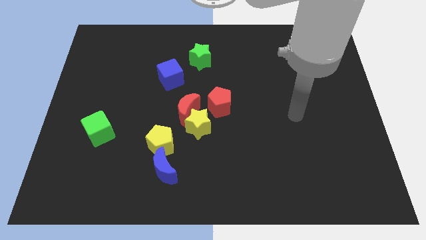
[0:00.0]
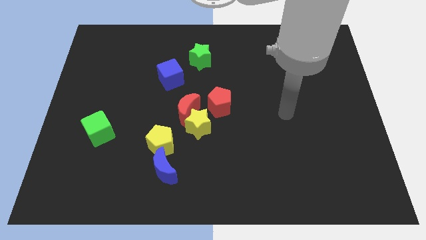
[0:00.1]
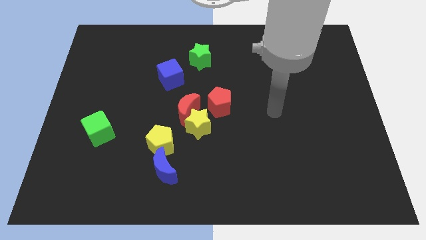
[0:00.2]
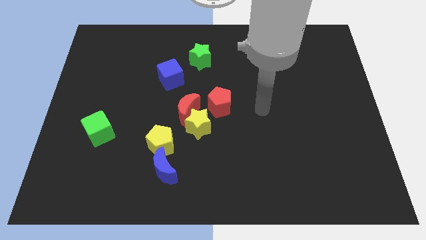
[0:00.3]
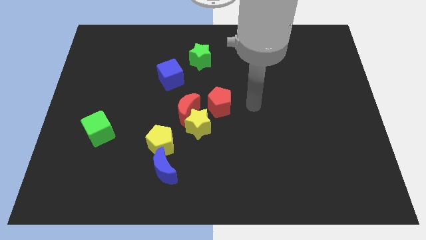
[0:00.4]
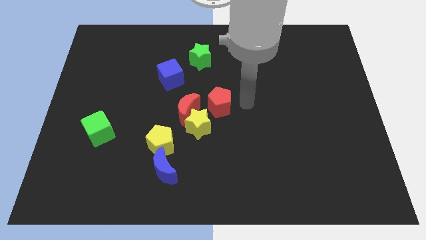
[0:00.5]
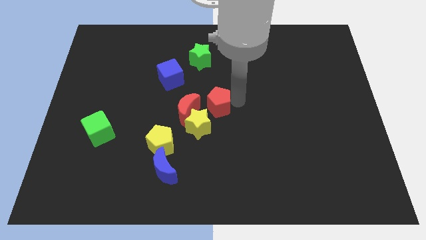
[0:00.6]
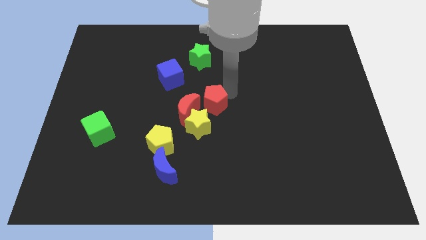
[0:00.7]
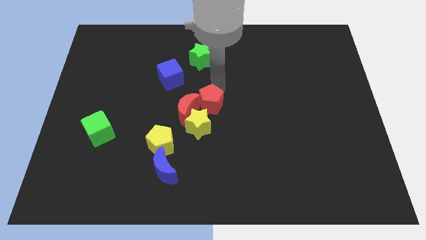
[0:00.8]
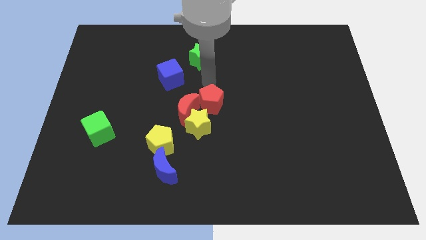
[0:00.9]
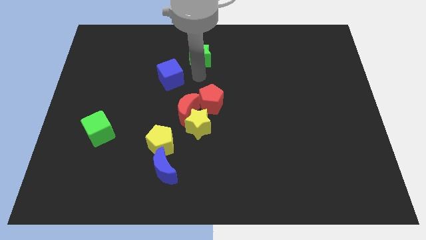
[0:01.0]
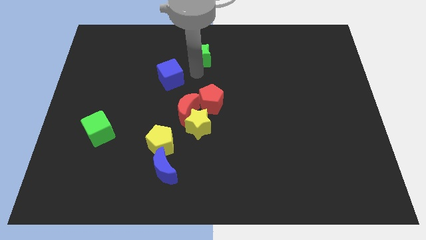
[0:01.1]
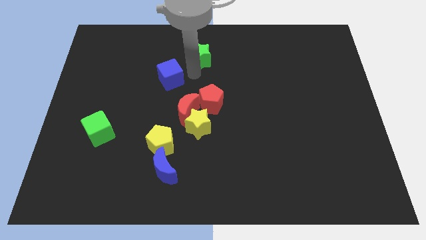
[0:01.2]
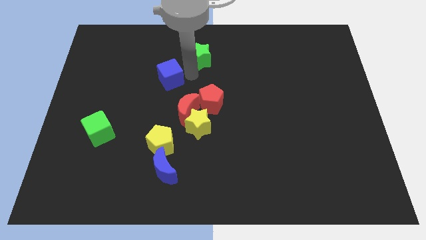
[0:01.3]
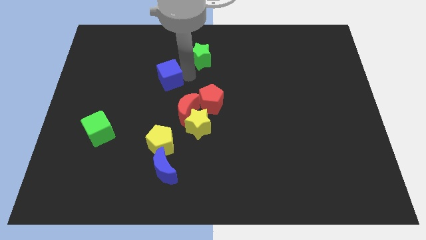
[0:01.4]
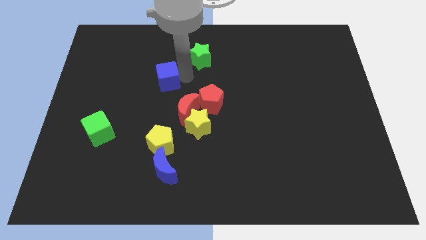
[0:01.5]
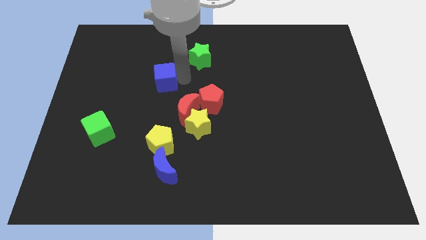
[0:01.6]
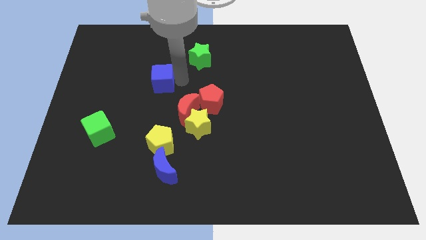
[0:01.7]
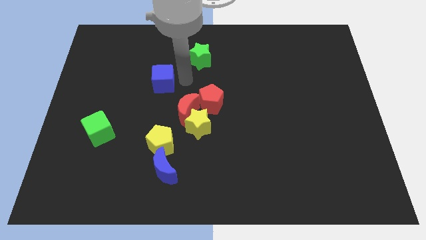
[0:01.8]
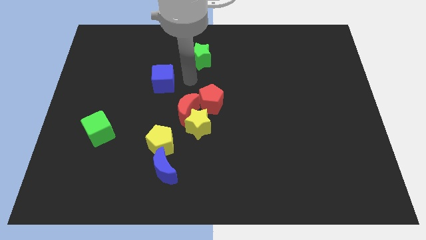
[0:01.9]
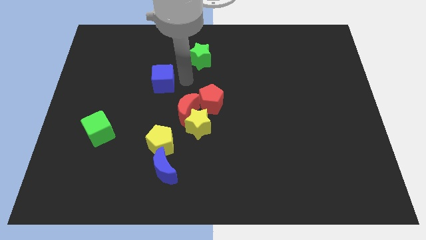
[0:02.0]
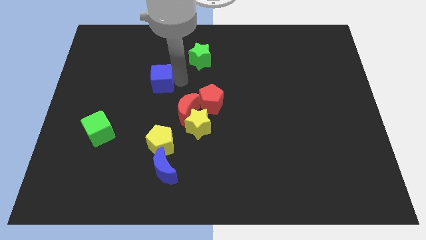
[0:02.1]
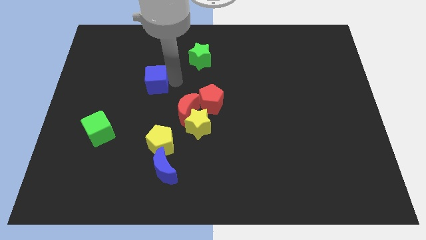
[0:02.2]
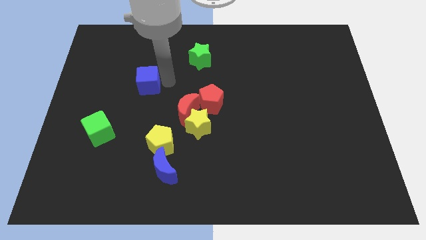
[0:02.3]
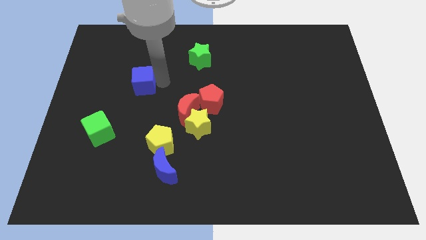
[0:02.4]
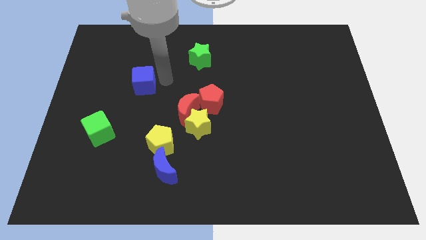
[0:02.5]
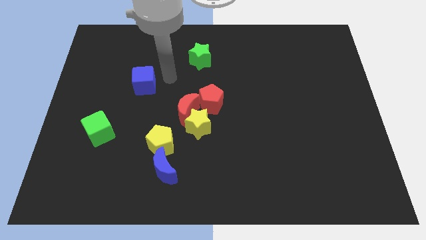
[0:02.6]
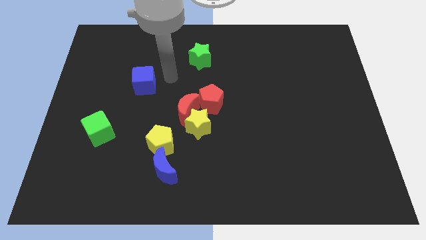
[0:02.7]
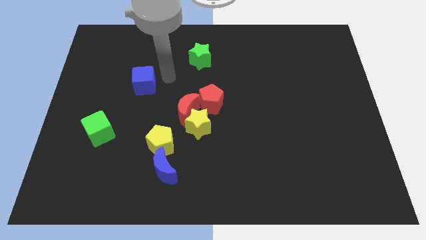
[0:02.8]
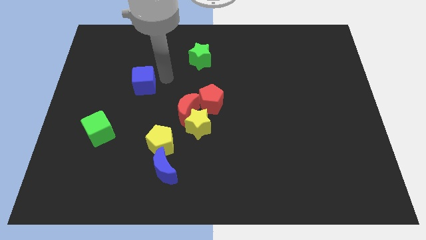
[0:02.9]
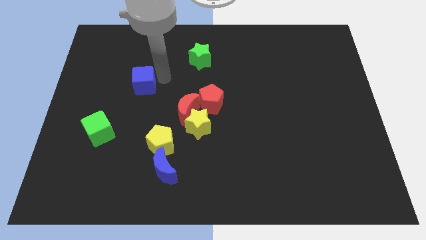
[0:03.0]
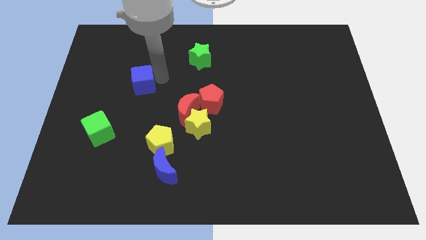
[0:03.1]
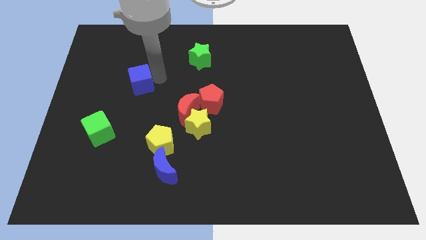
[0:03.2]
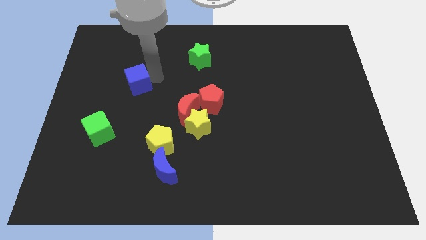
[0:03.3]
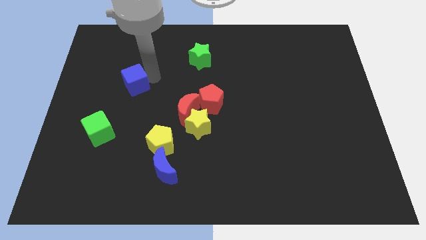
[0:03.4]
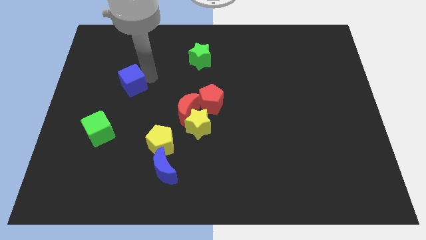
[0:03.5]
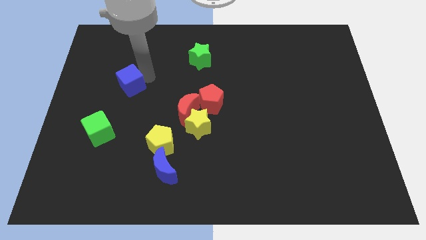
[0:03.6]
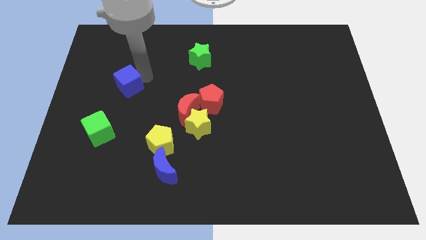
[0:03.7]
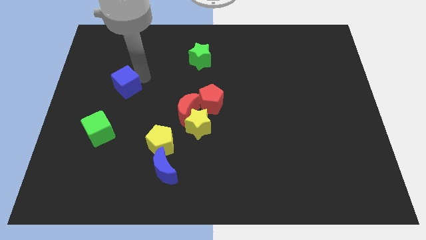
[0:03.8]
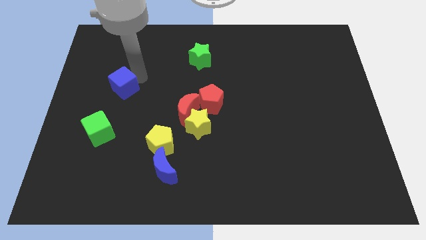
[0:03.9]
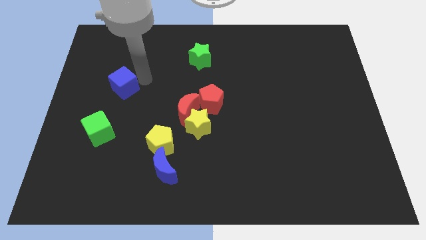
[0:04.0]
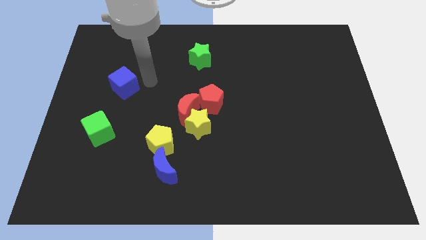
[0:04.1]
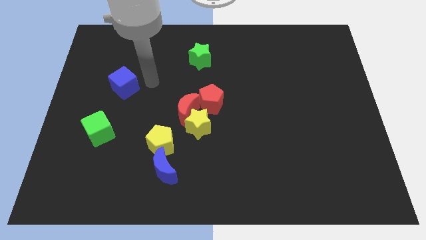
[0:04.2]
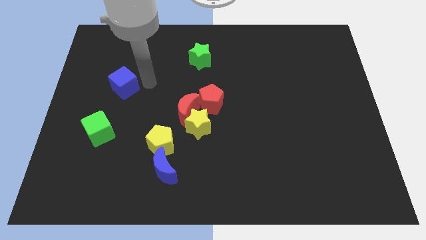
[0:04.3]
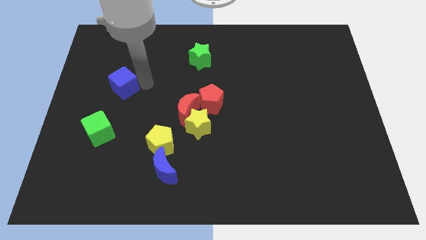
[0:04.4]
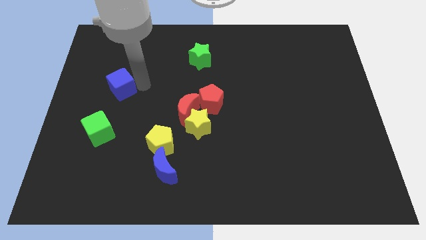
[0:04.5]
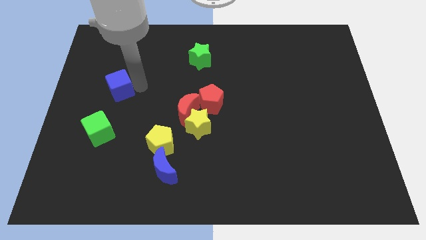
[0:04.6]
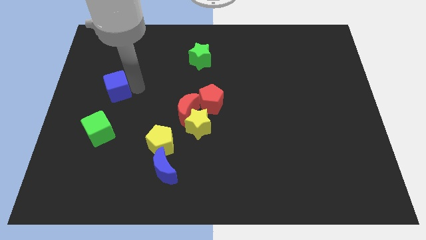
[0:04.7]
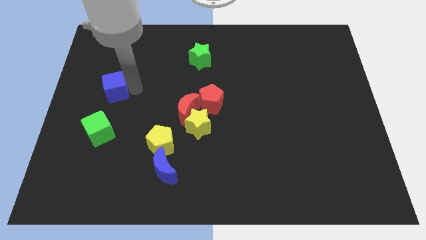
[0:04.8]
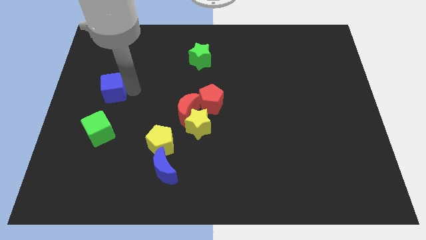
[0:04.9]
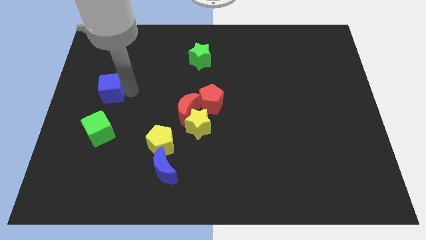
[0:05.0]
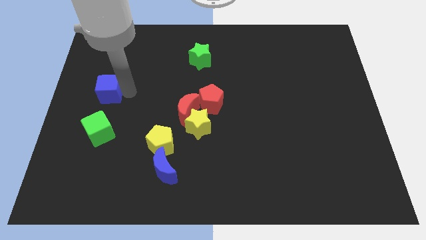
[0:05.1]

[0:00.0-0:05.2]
move the blue cube to the left side of the board
